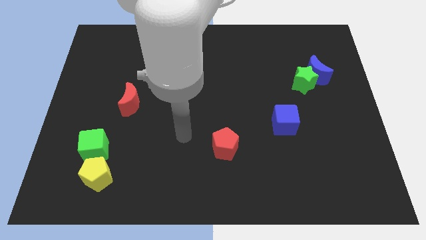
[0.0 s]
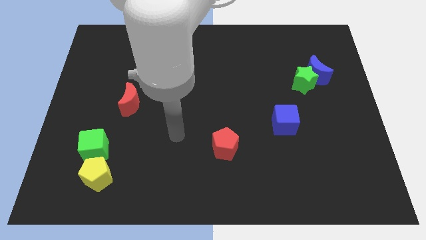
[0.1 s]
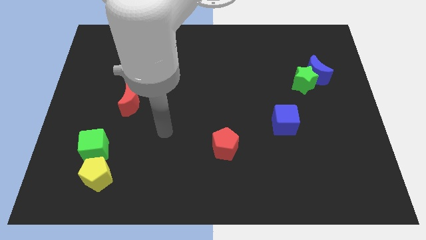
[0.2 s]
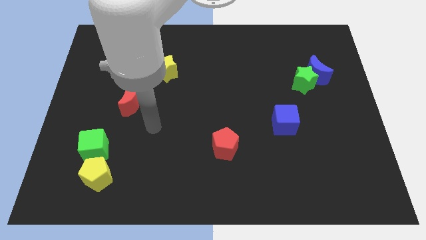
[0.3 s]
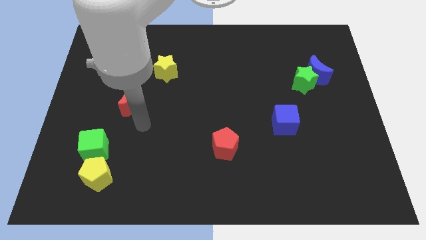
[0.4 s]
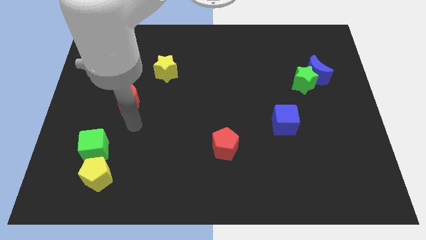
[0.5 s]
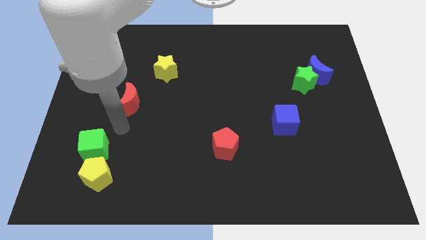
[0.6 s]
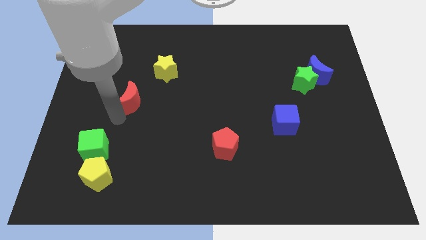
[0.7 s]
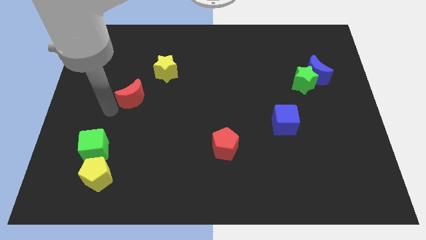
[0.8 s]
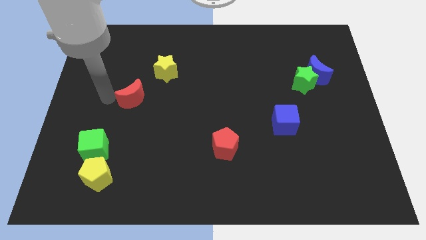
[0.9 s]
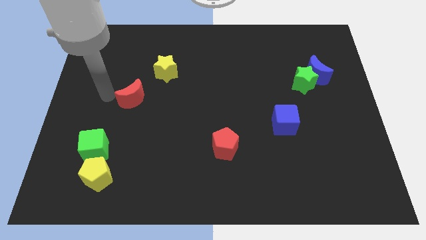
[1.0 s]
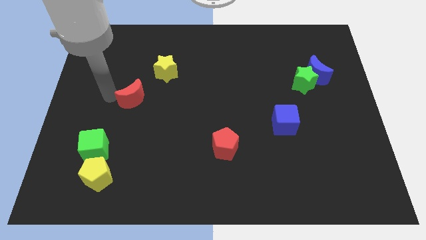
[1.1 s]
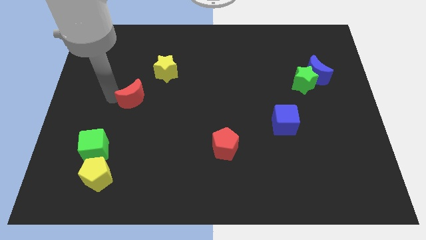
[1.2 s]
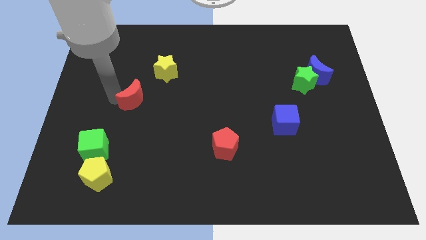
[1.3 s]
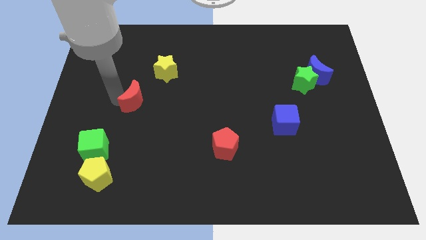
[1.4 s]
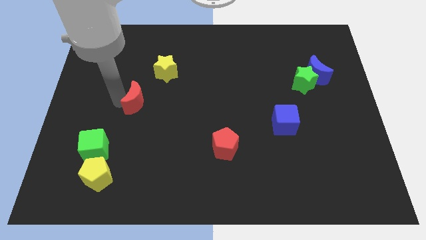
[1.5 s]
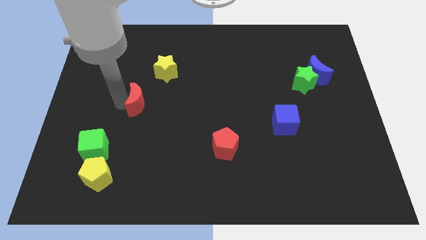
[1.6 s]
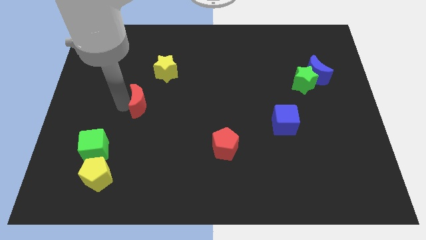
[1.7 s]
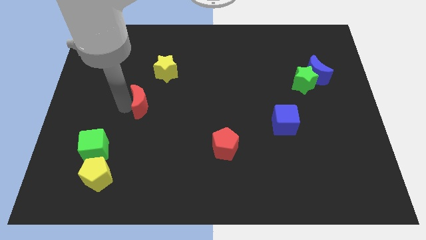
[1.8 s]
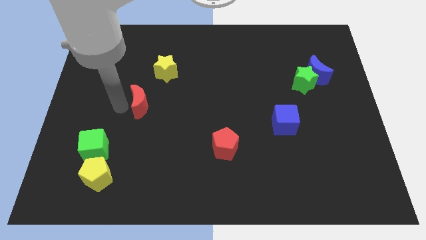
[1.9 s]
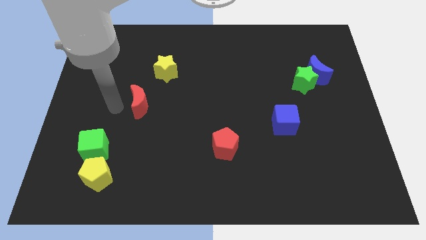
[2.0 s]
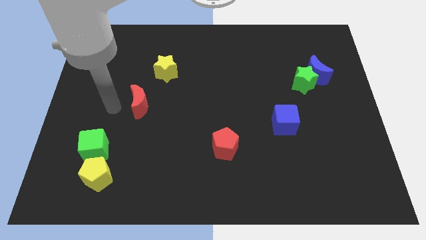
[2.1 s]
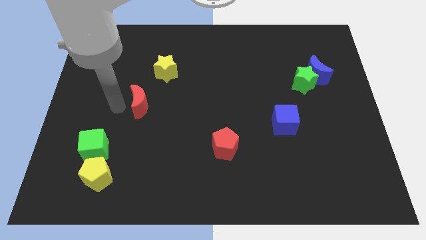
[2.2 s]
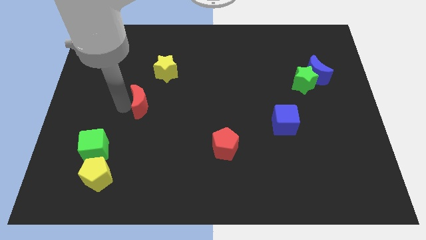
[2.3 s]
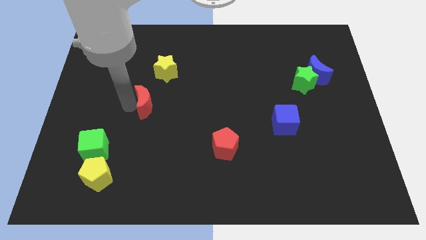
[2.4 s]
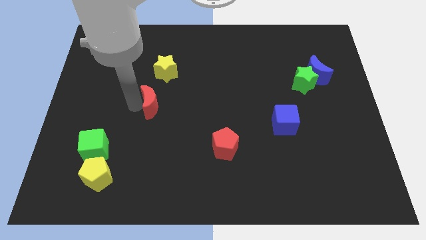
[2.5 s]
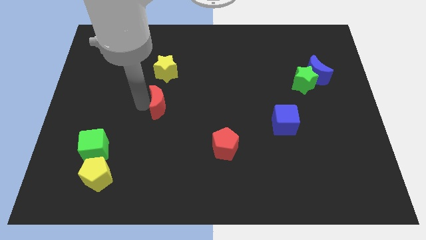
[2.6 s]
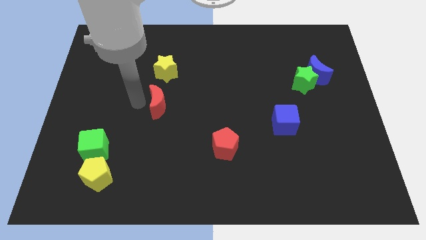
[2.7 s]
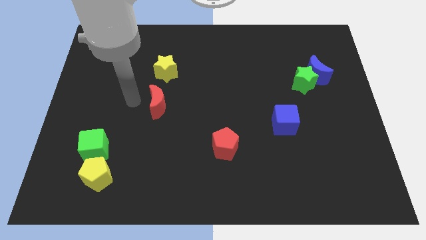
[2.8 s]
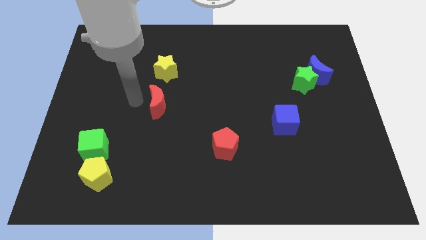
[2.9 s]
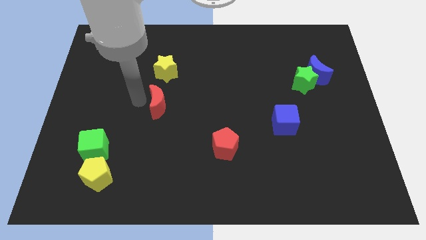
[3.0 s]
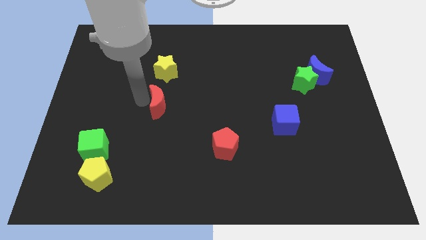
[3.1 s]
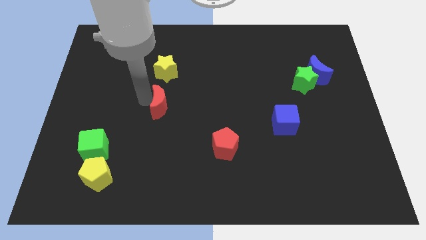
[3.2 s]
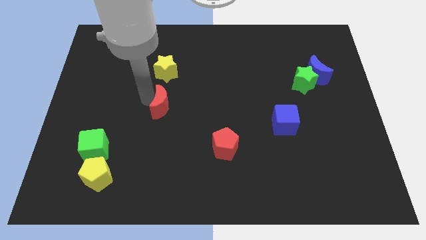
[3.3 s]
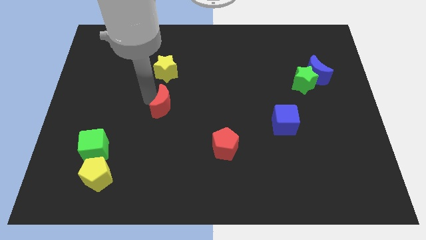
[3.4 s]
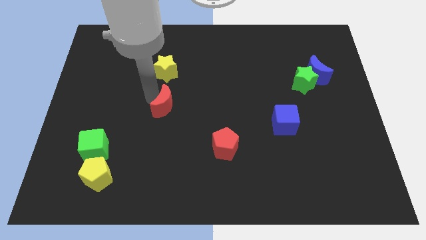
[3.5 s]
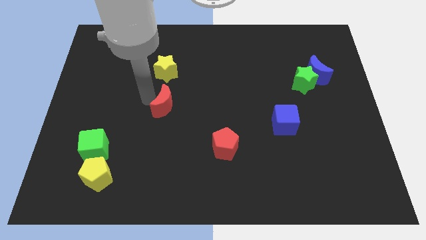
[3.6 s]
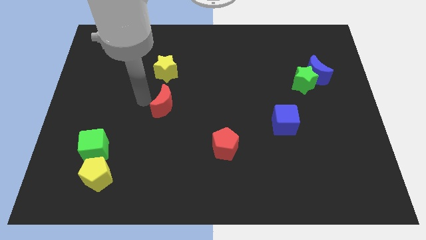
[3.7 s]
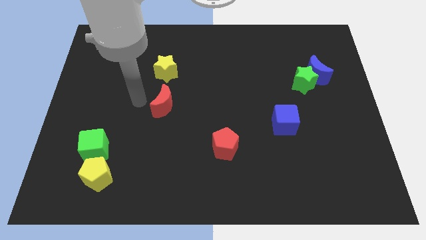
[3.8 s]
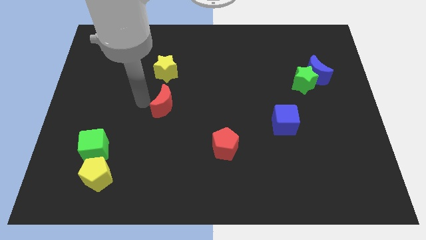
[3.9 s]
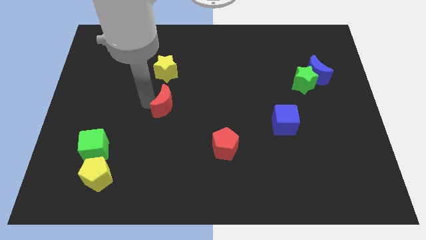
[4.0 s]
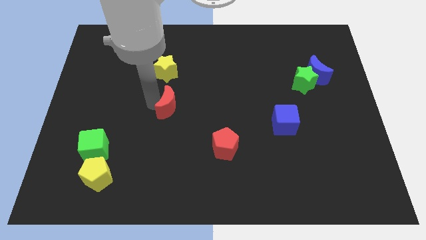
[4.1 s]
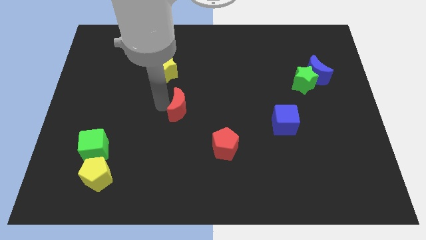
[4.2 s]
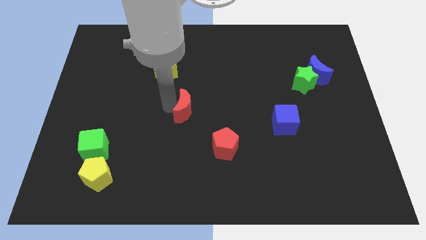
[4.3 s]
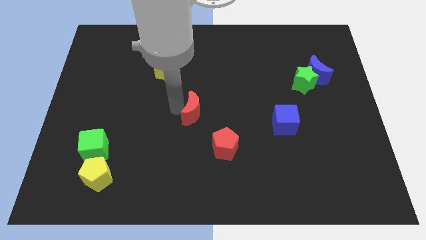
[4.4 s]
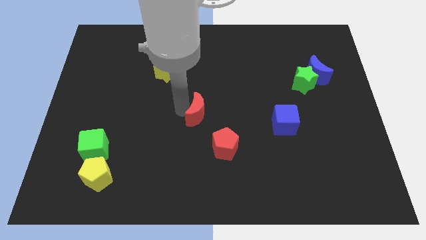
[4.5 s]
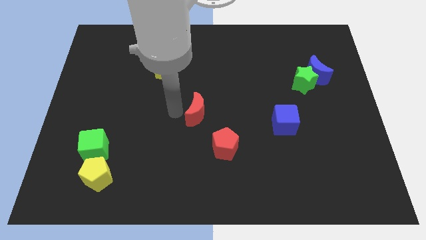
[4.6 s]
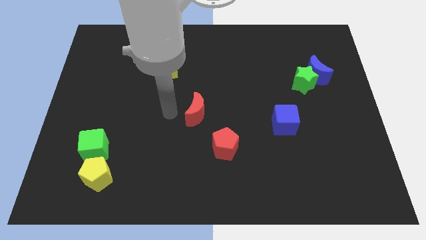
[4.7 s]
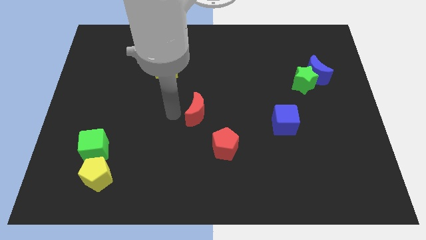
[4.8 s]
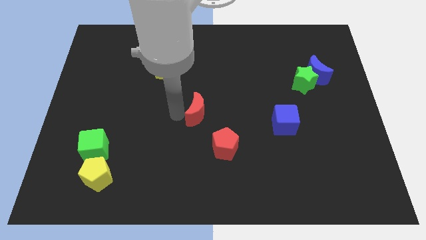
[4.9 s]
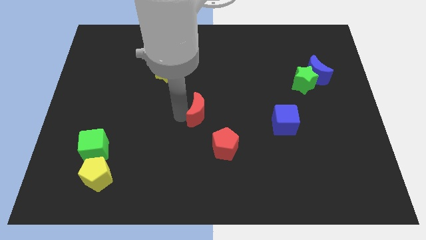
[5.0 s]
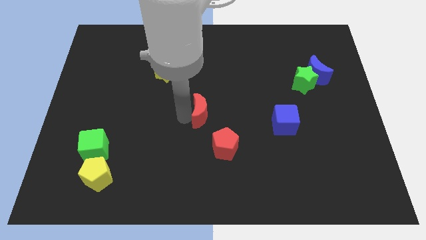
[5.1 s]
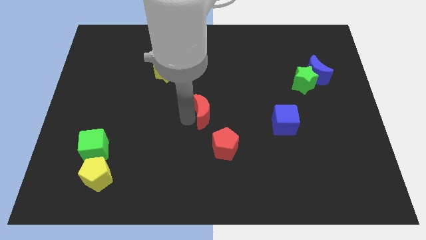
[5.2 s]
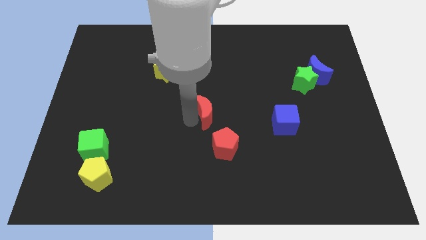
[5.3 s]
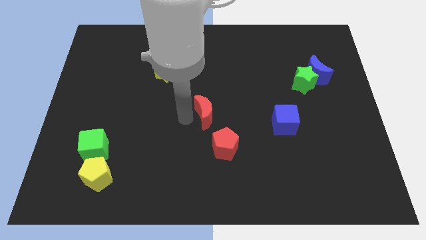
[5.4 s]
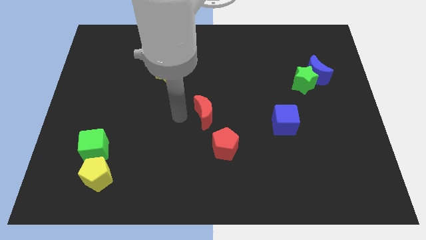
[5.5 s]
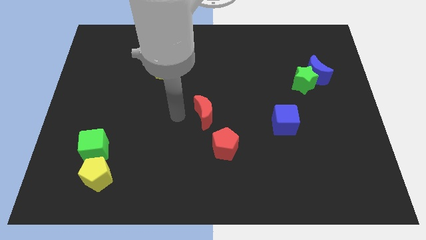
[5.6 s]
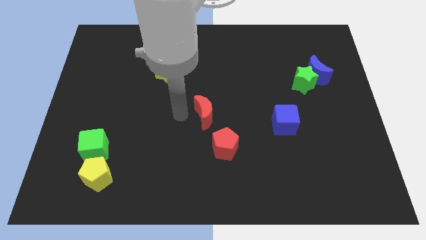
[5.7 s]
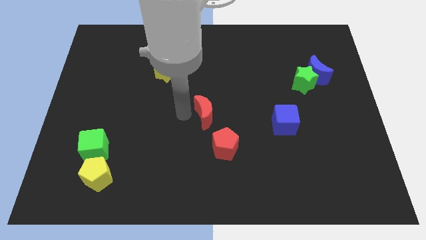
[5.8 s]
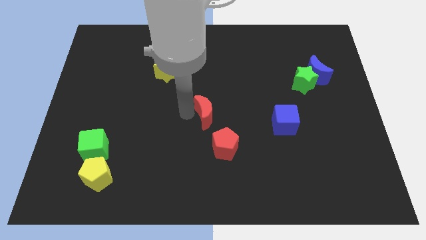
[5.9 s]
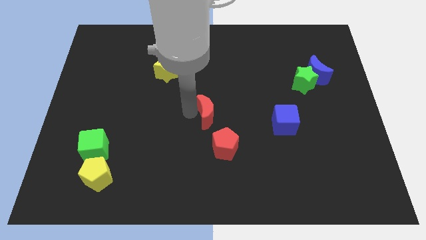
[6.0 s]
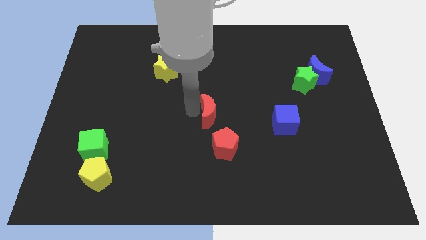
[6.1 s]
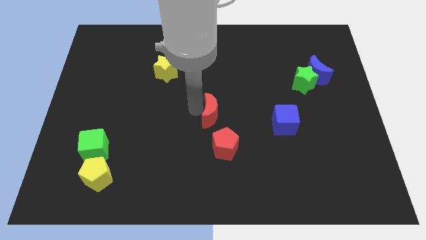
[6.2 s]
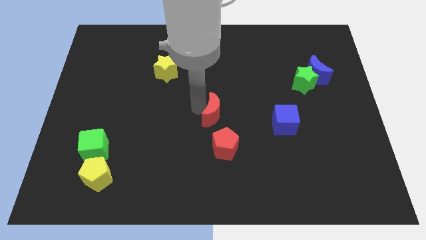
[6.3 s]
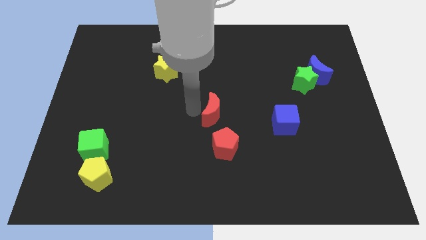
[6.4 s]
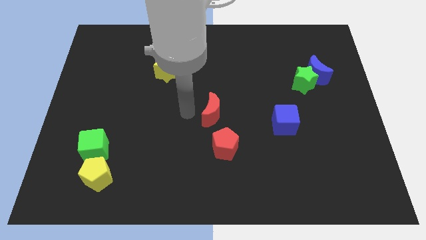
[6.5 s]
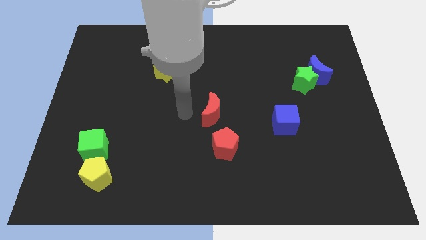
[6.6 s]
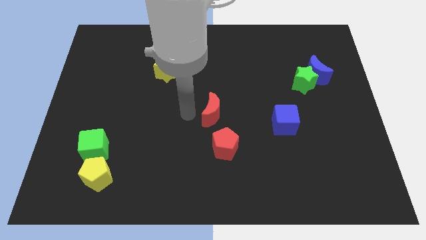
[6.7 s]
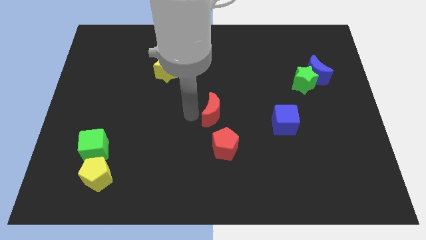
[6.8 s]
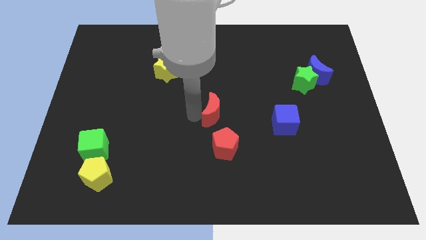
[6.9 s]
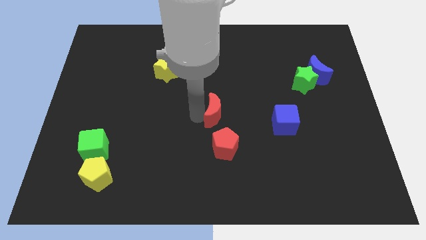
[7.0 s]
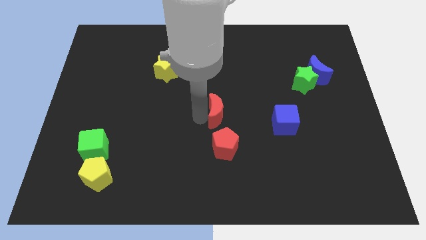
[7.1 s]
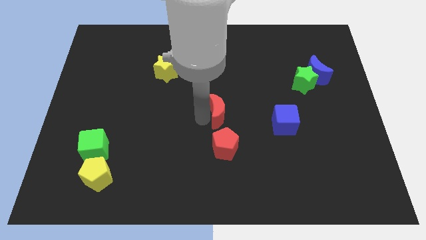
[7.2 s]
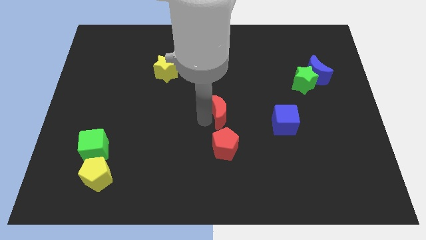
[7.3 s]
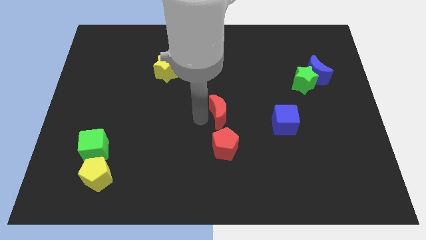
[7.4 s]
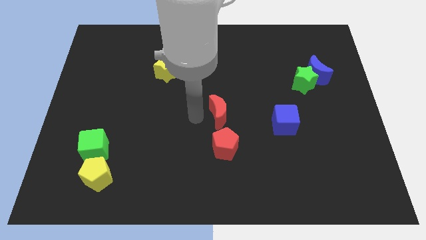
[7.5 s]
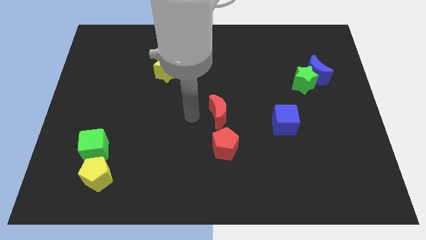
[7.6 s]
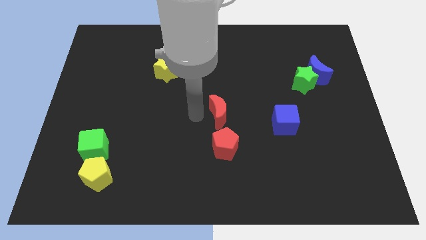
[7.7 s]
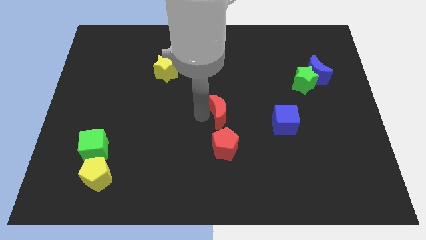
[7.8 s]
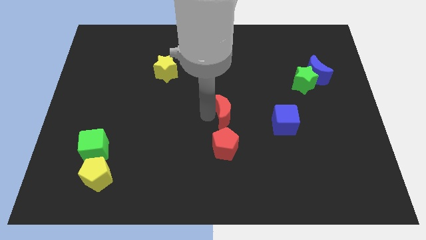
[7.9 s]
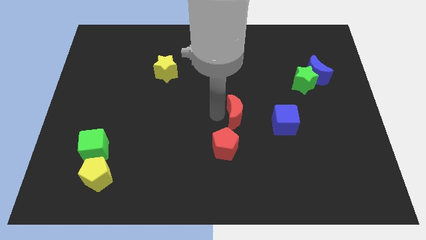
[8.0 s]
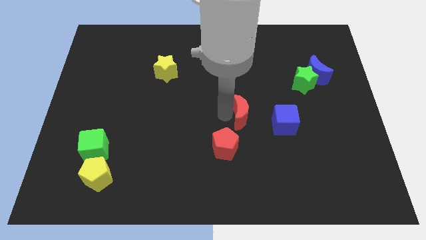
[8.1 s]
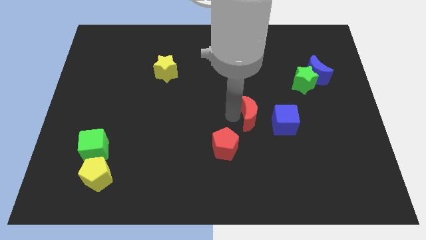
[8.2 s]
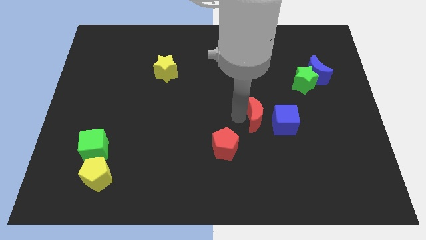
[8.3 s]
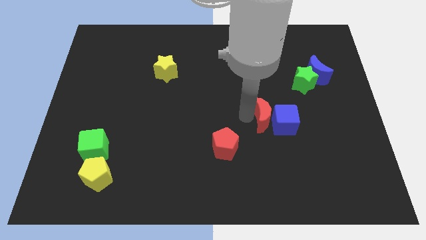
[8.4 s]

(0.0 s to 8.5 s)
slide the red moon close to the blue cube
